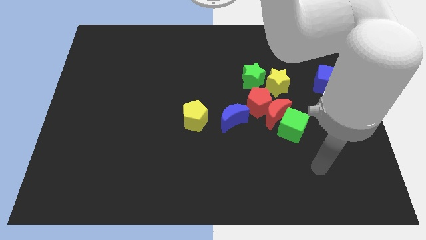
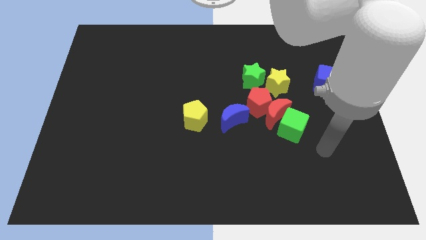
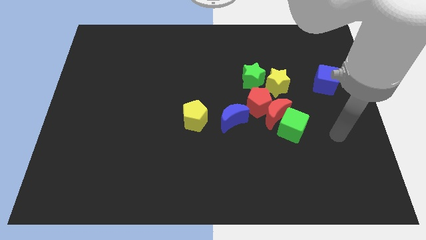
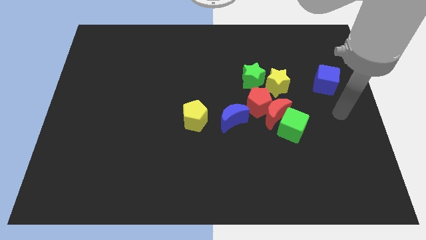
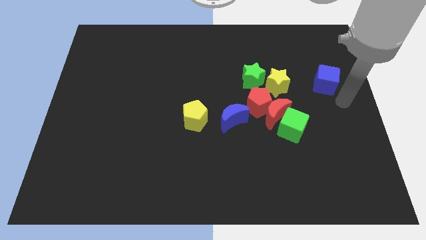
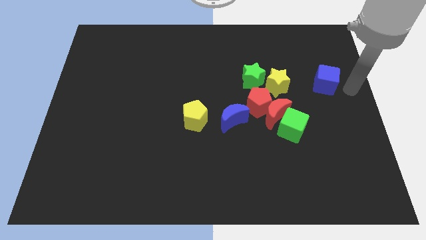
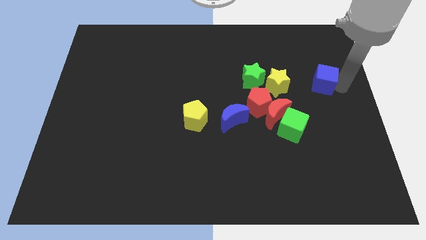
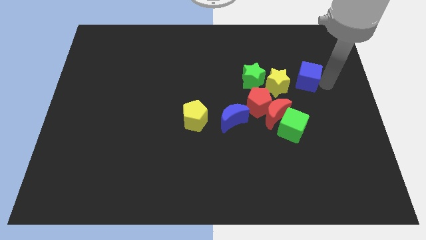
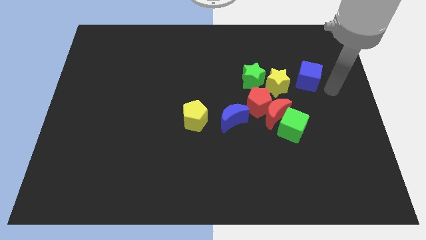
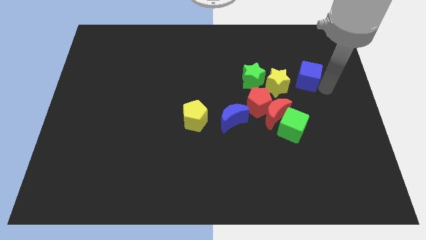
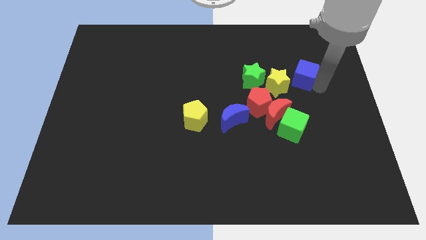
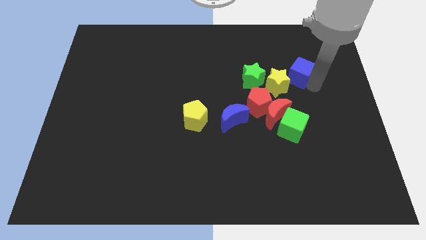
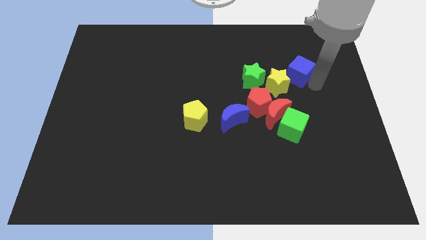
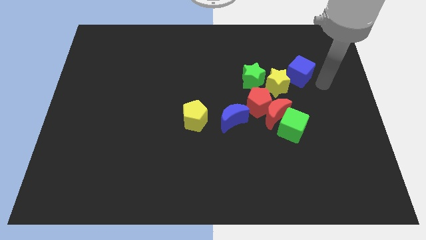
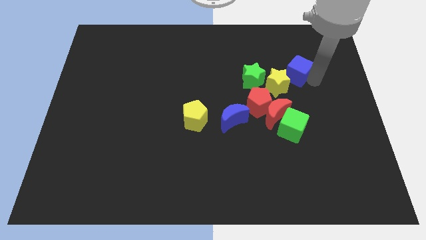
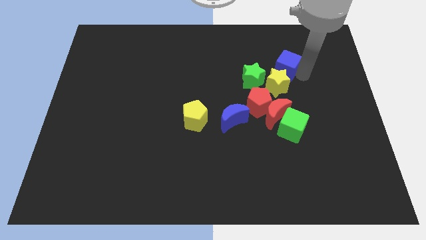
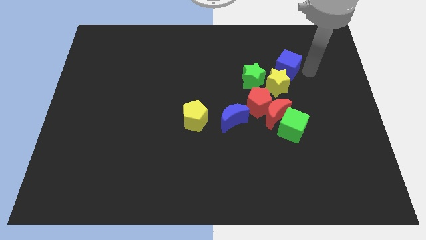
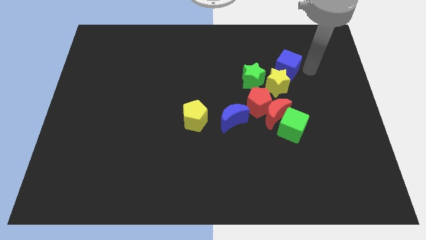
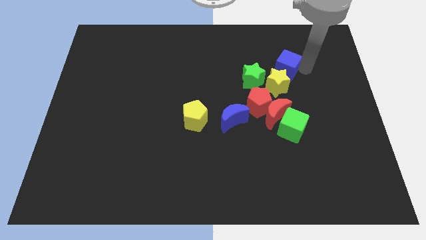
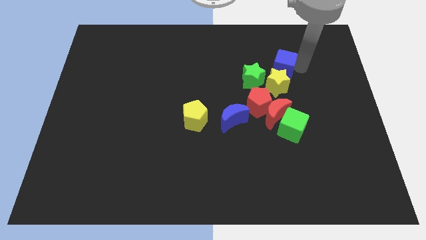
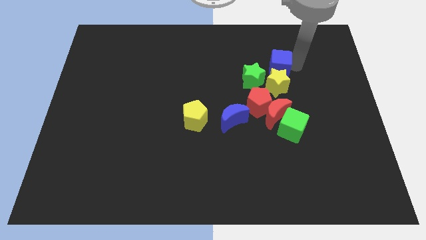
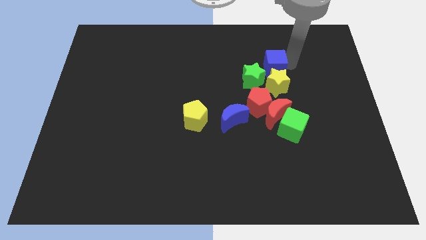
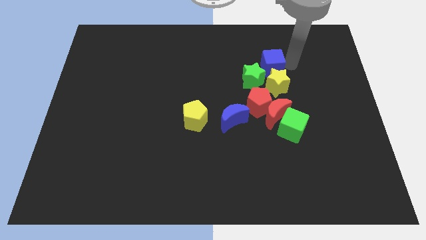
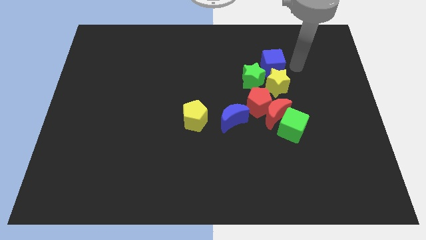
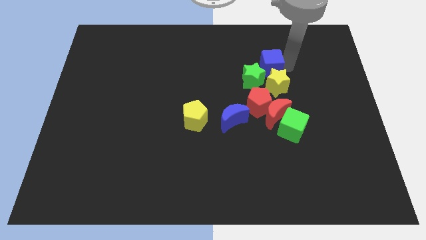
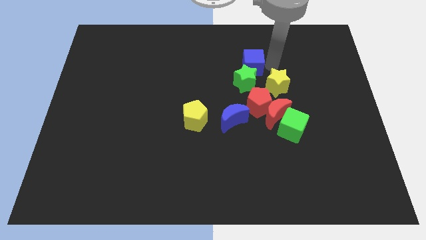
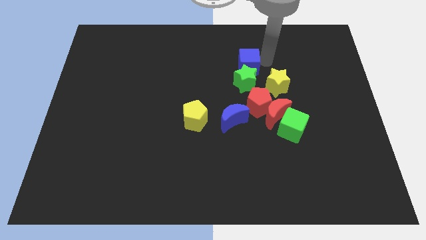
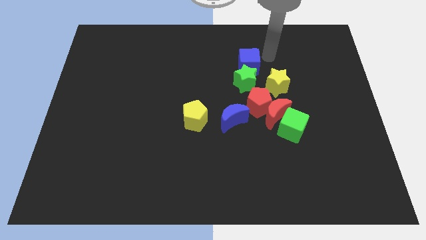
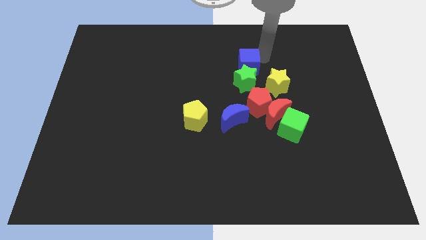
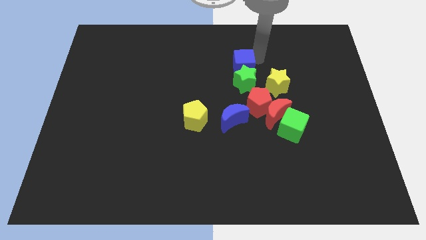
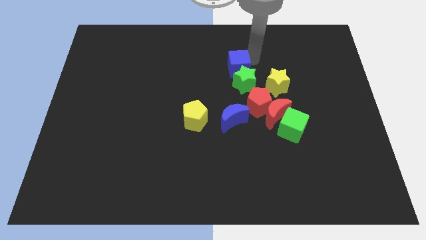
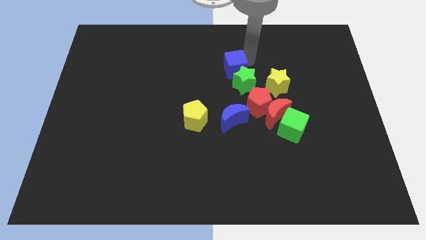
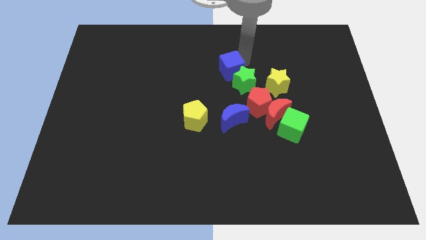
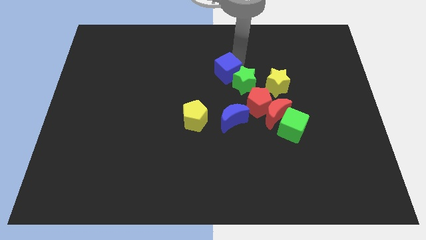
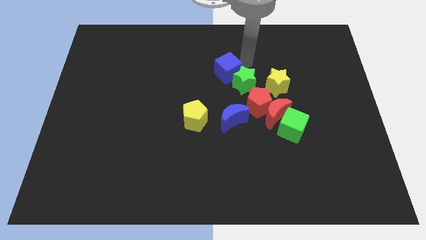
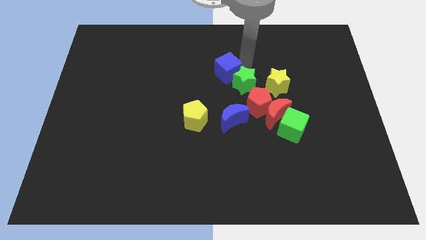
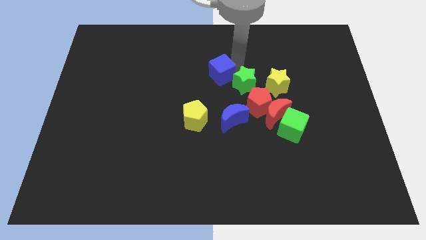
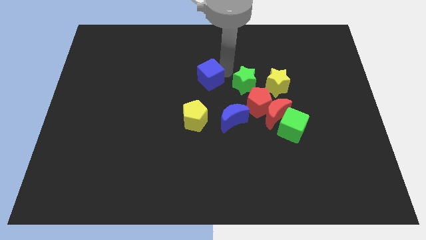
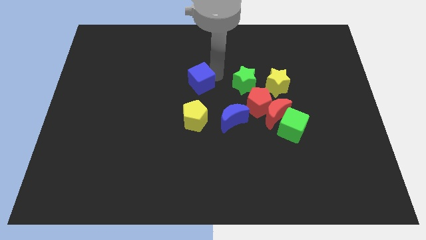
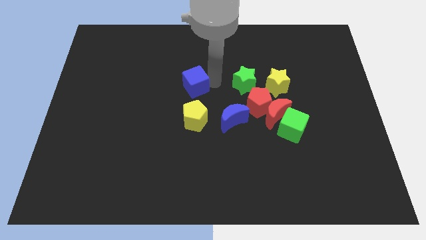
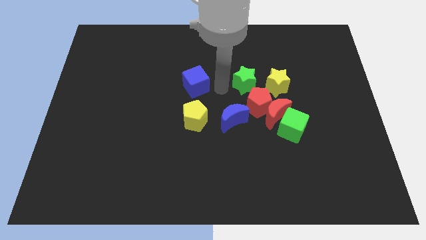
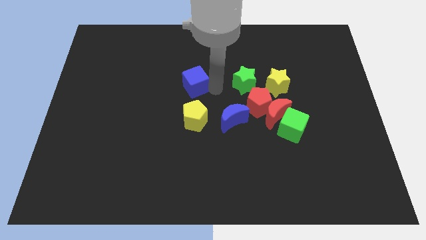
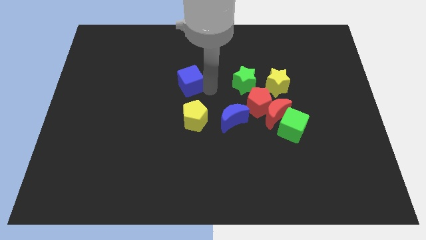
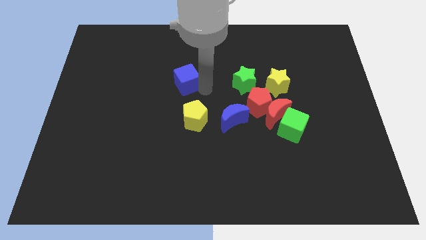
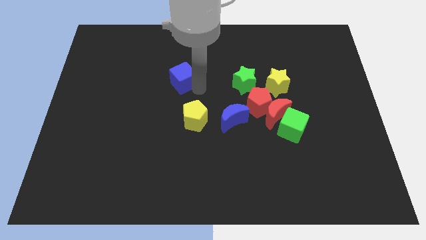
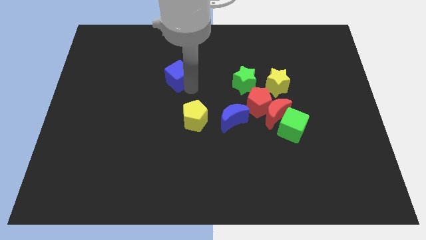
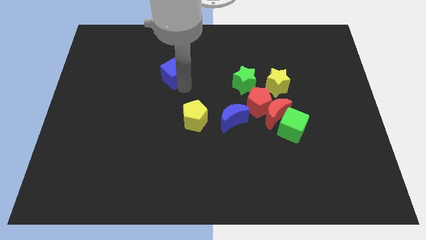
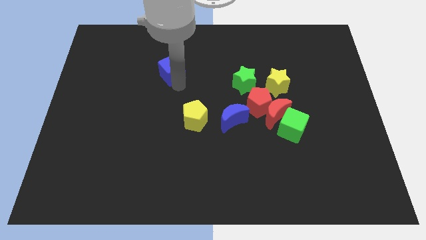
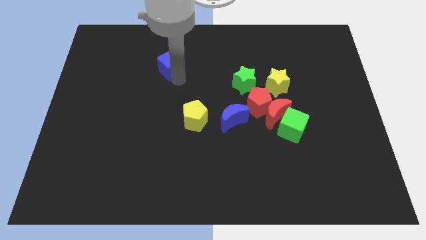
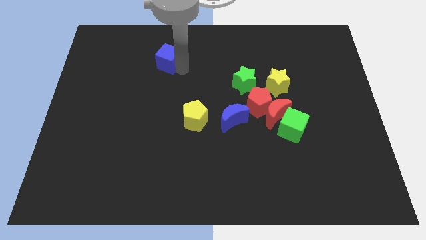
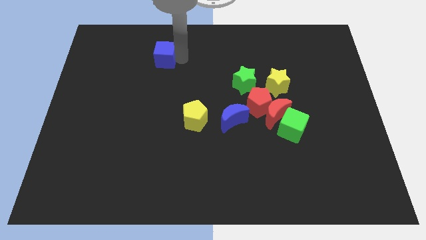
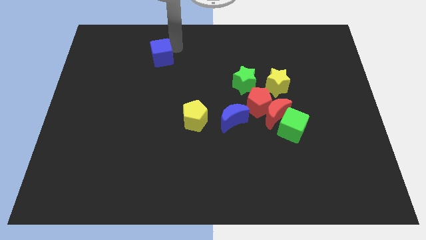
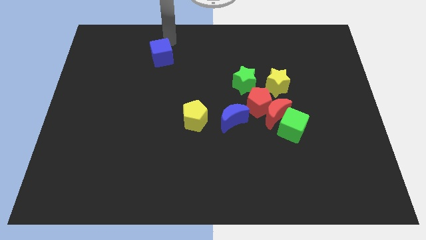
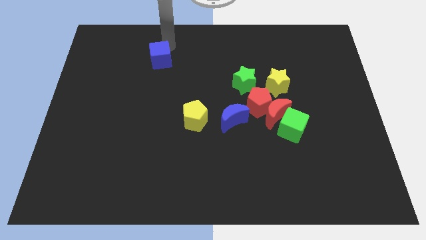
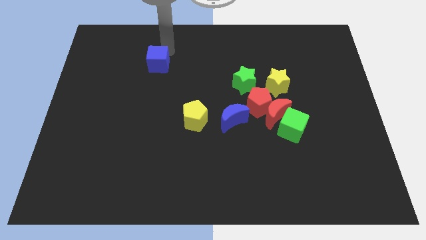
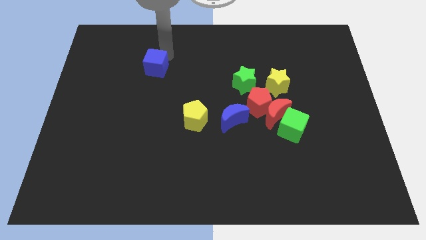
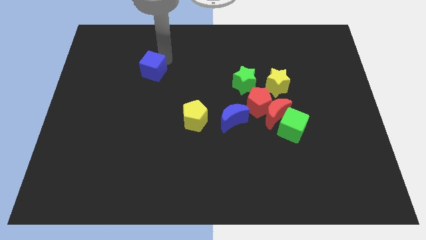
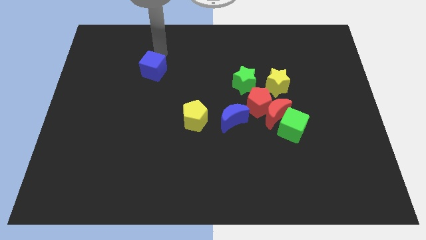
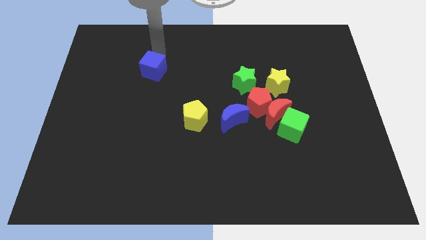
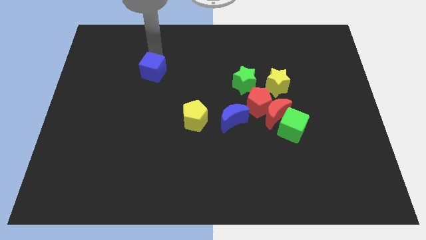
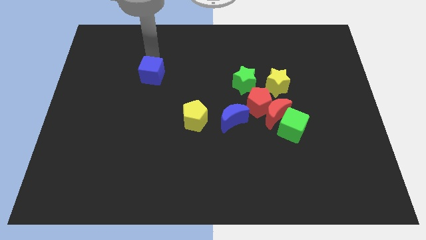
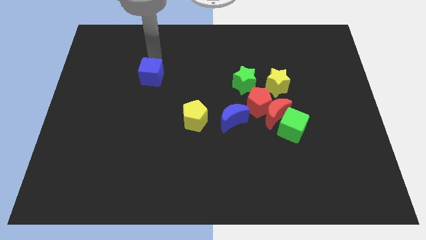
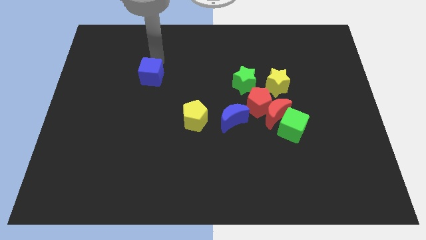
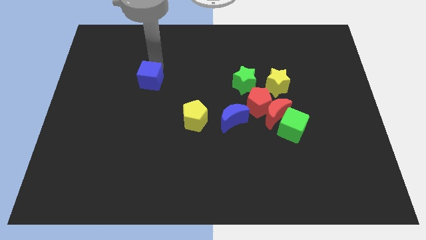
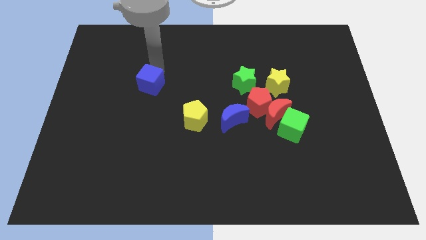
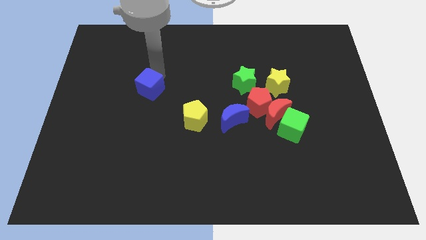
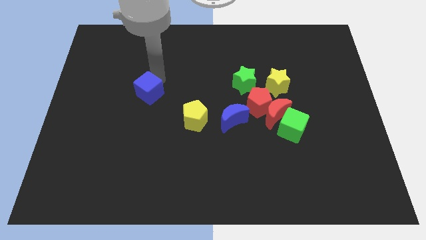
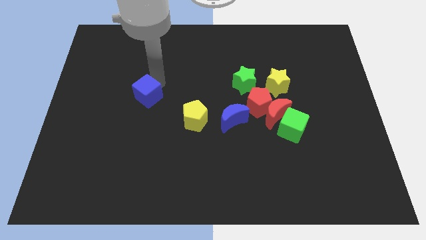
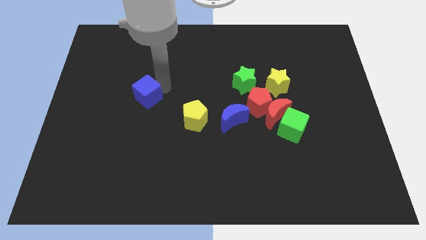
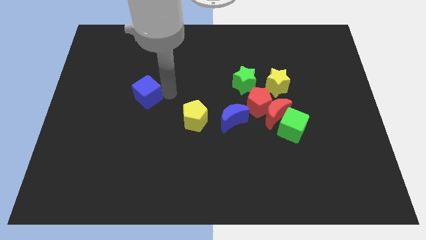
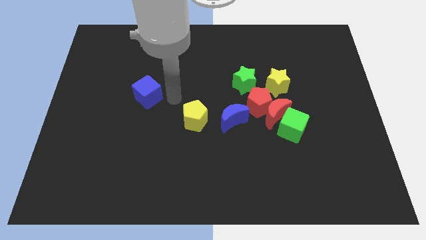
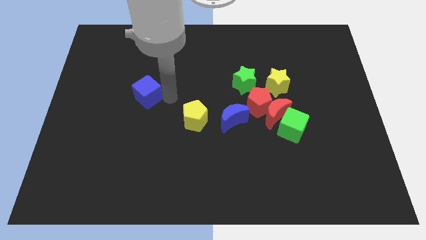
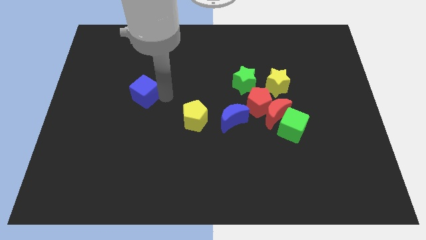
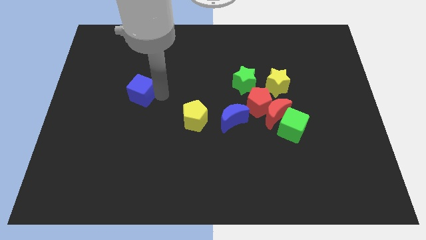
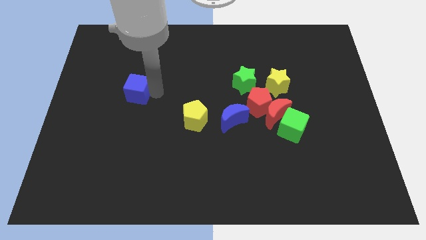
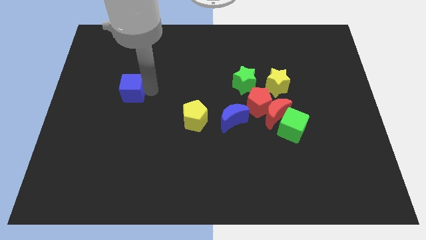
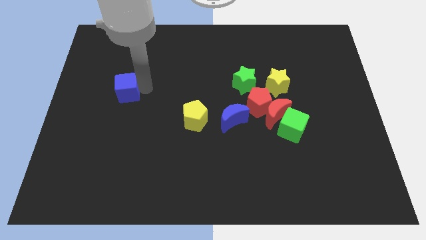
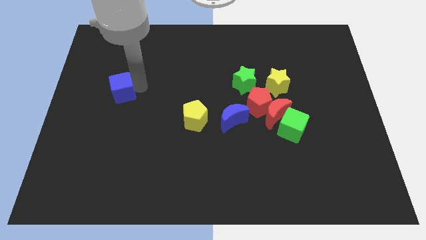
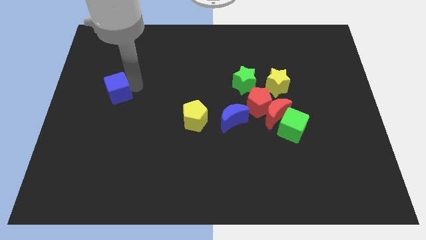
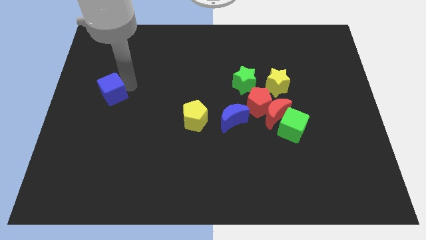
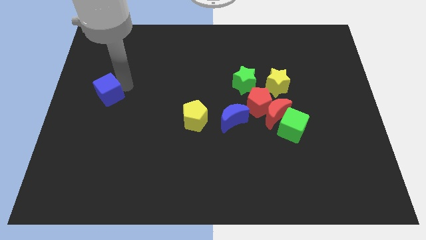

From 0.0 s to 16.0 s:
push the blue cube to the center left

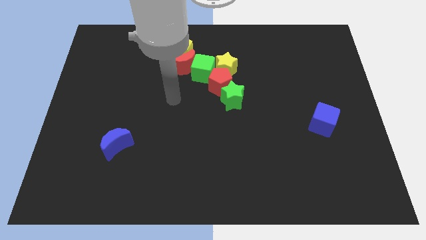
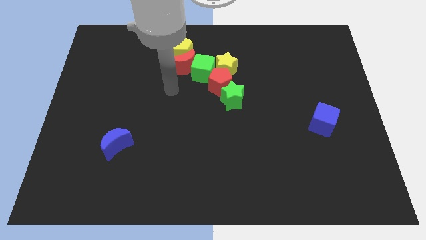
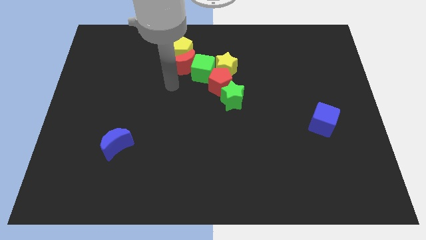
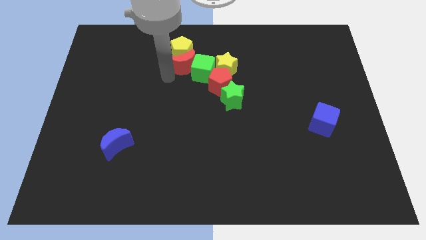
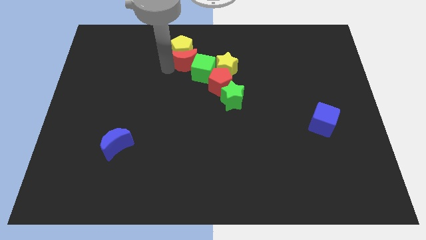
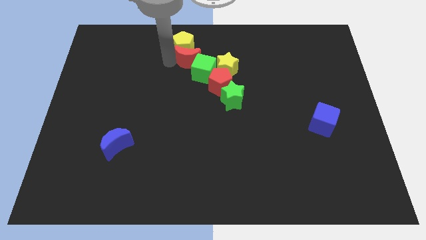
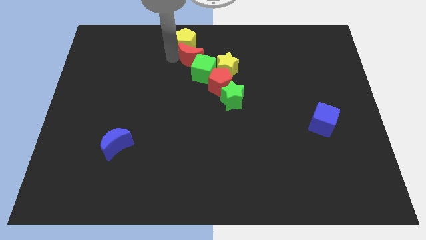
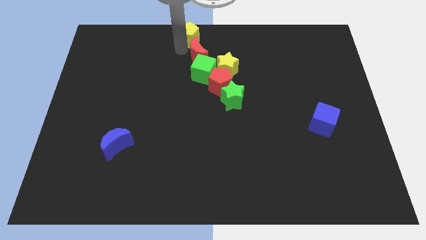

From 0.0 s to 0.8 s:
push the red moon to the towards your base
